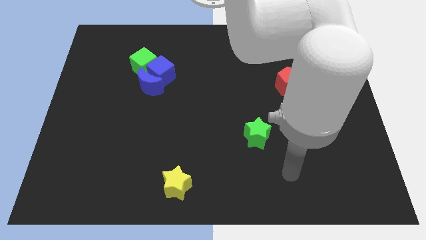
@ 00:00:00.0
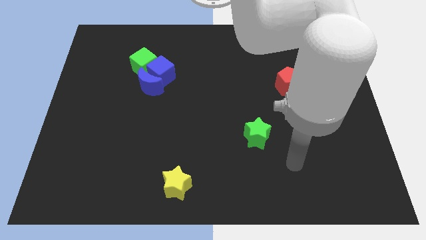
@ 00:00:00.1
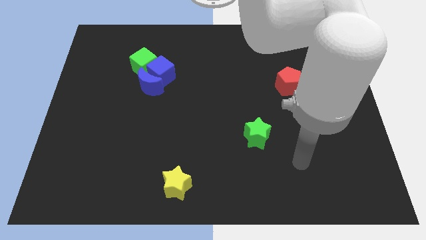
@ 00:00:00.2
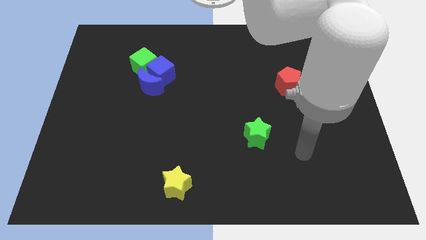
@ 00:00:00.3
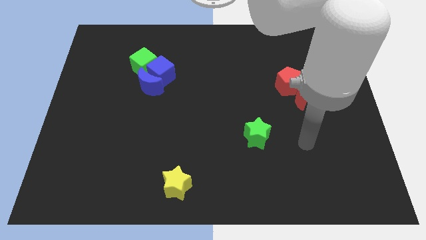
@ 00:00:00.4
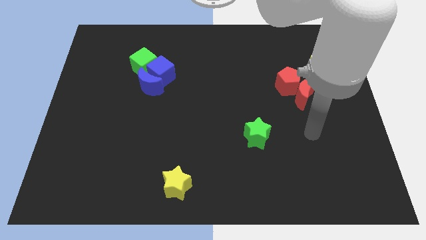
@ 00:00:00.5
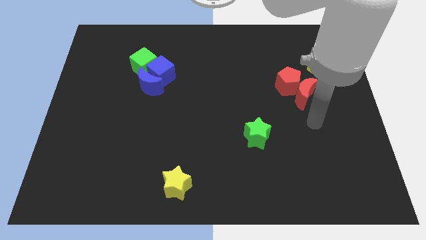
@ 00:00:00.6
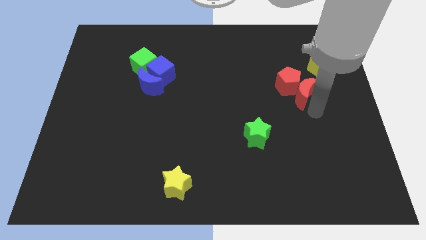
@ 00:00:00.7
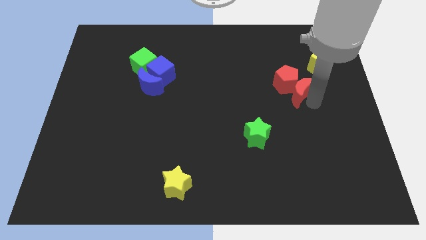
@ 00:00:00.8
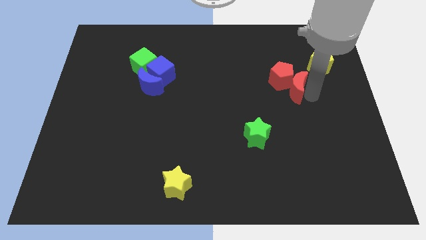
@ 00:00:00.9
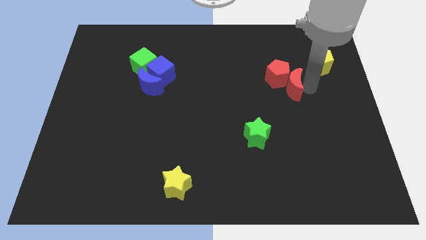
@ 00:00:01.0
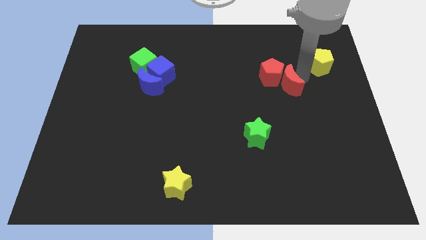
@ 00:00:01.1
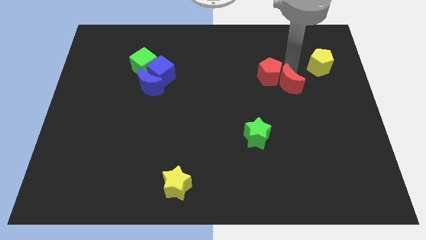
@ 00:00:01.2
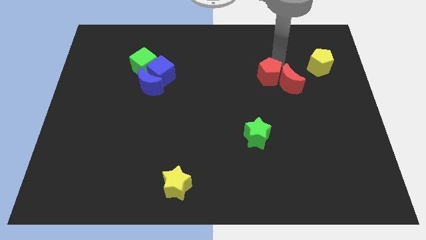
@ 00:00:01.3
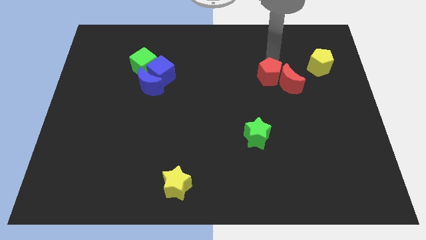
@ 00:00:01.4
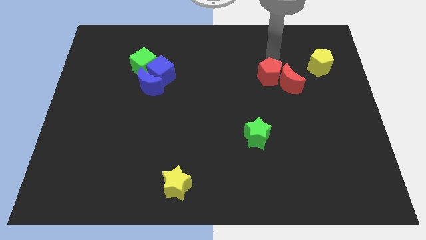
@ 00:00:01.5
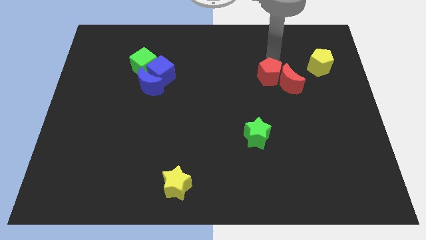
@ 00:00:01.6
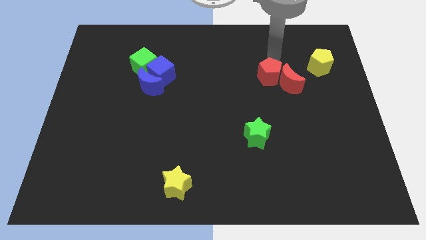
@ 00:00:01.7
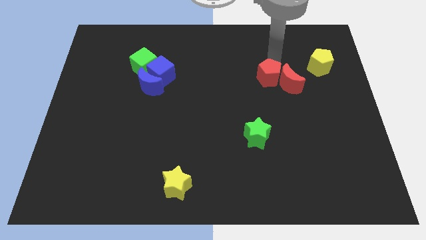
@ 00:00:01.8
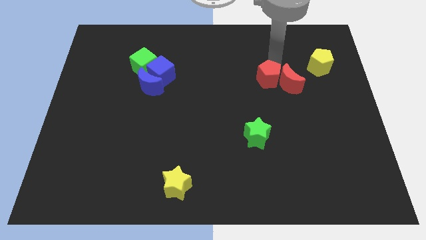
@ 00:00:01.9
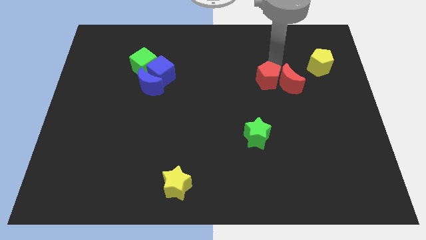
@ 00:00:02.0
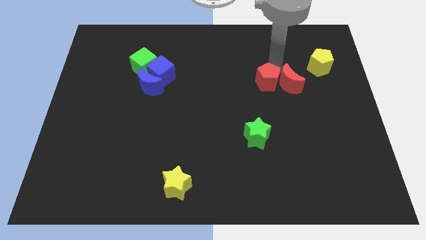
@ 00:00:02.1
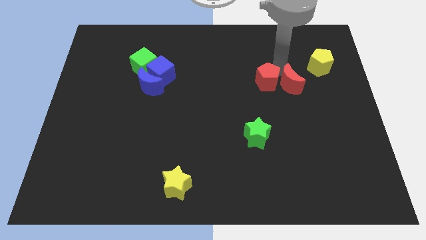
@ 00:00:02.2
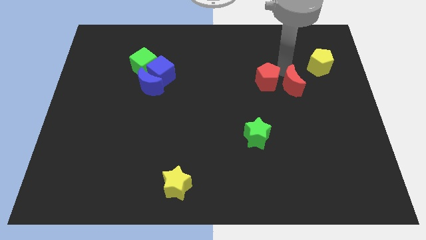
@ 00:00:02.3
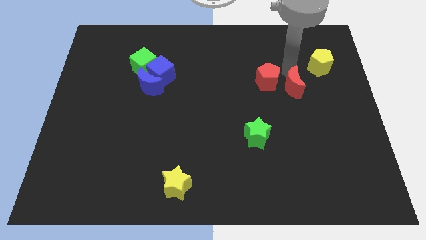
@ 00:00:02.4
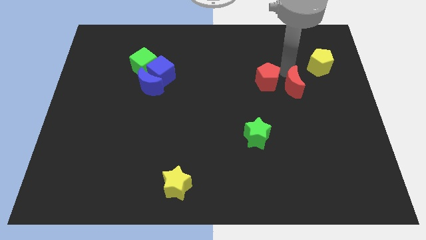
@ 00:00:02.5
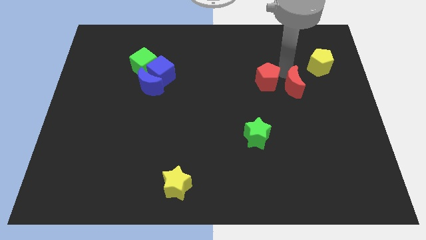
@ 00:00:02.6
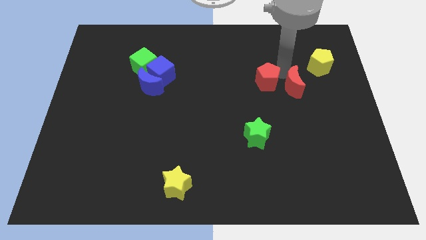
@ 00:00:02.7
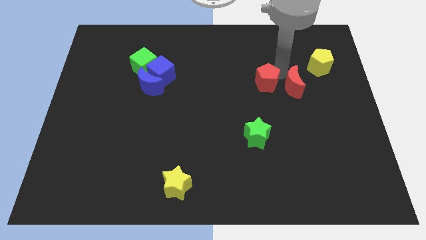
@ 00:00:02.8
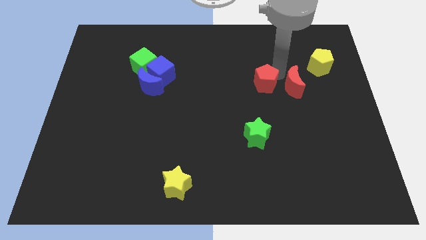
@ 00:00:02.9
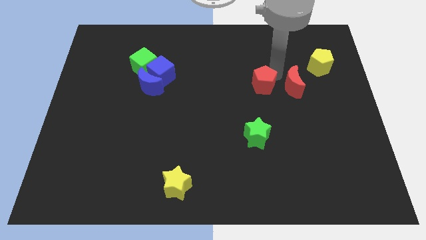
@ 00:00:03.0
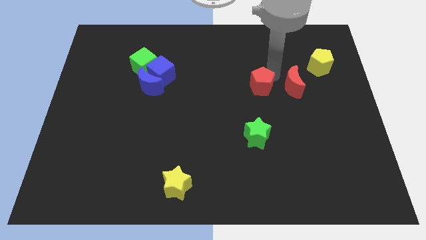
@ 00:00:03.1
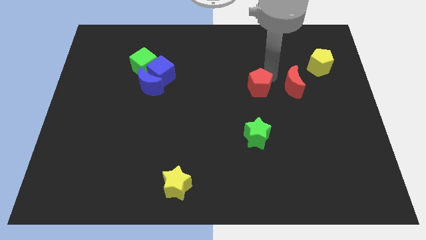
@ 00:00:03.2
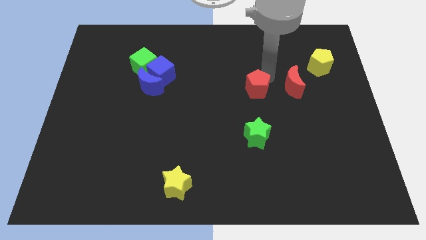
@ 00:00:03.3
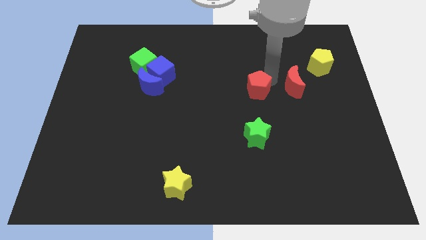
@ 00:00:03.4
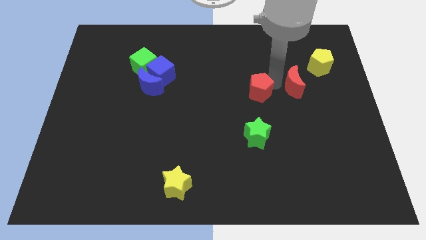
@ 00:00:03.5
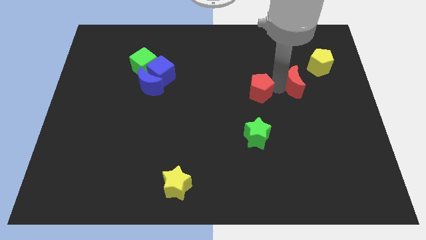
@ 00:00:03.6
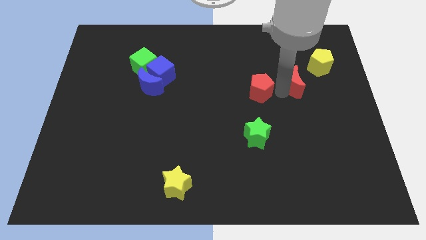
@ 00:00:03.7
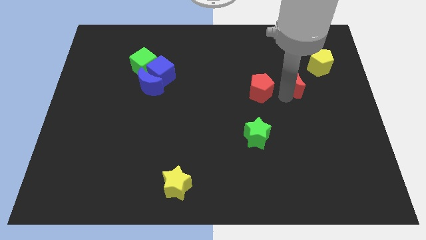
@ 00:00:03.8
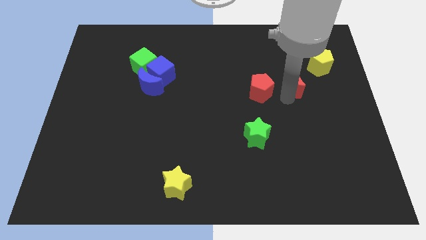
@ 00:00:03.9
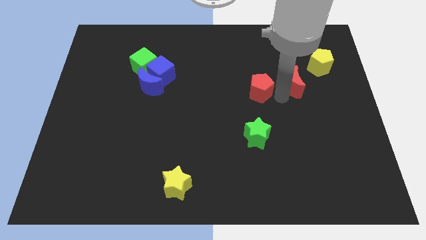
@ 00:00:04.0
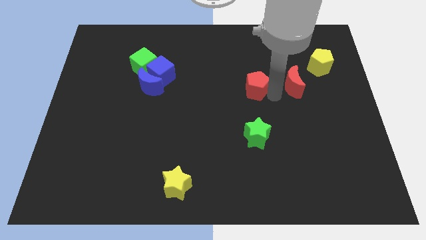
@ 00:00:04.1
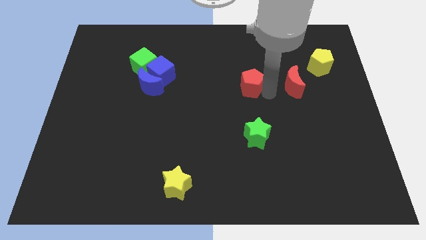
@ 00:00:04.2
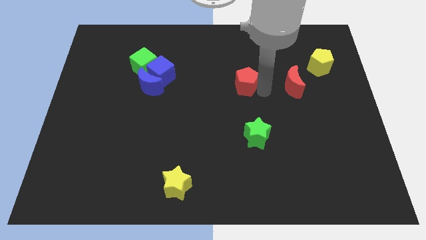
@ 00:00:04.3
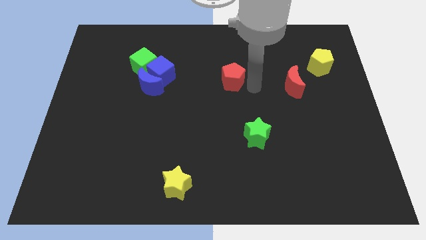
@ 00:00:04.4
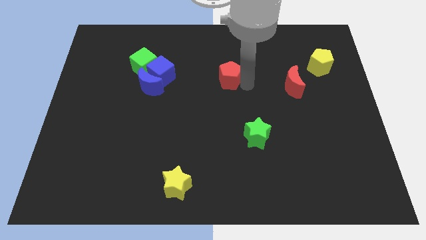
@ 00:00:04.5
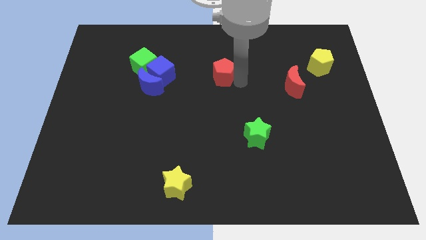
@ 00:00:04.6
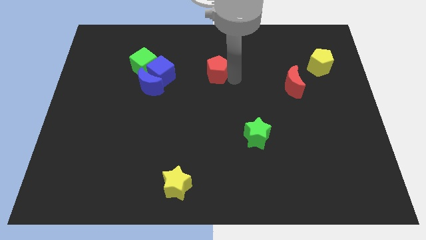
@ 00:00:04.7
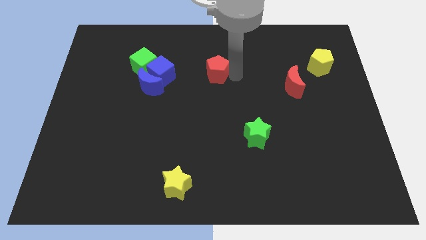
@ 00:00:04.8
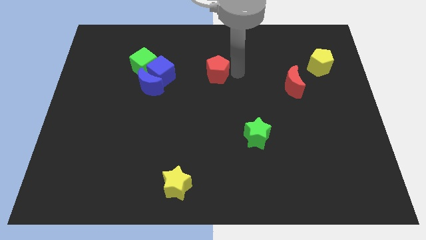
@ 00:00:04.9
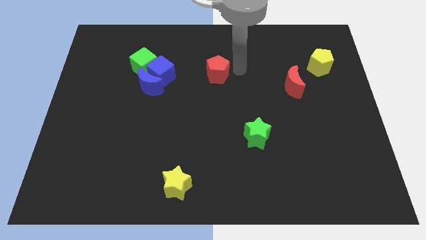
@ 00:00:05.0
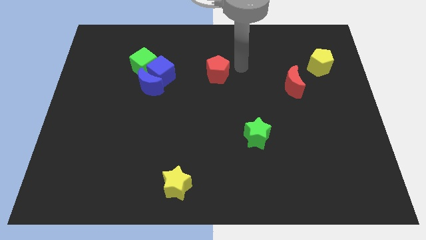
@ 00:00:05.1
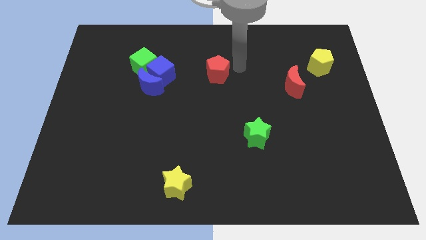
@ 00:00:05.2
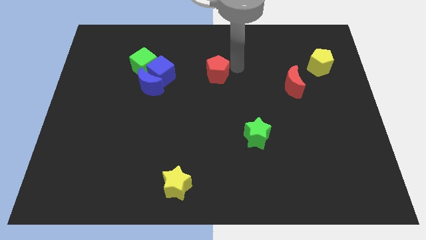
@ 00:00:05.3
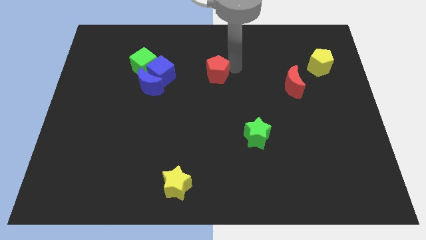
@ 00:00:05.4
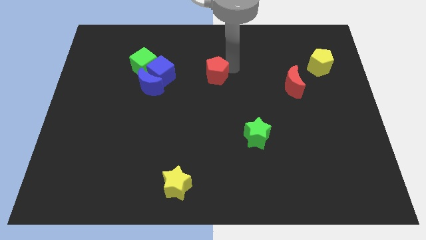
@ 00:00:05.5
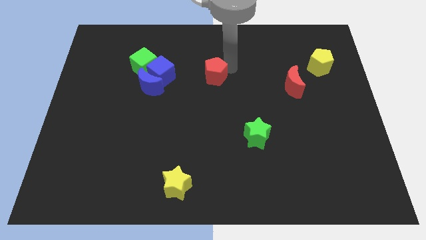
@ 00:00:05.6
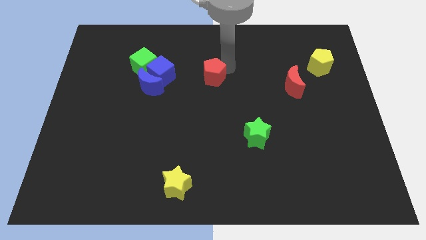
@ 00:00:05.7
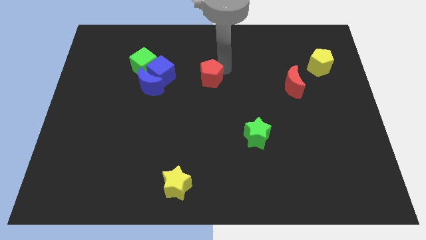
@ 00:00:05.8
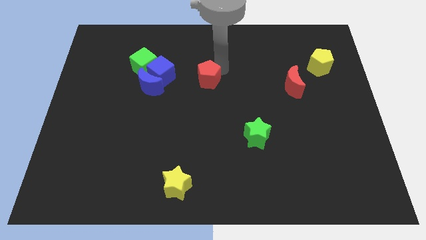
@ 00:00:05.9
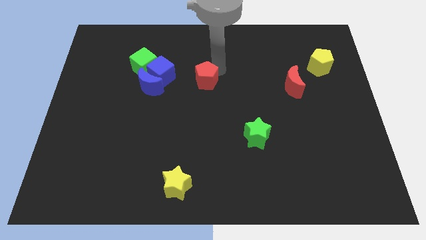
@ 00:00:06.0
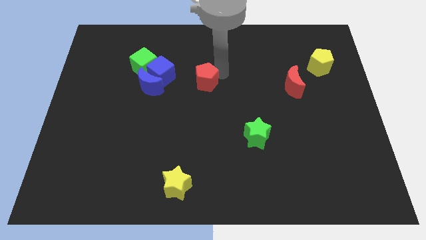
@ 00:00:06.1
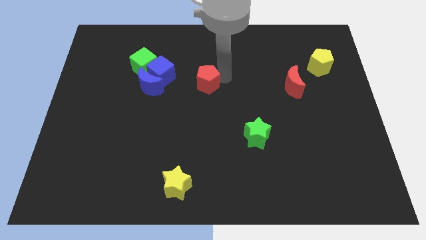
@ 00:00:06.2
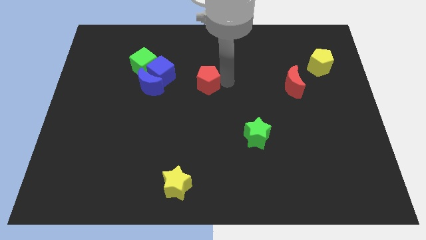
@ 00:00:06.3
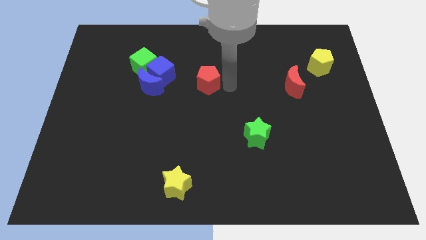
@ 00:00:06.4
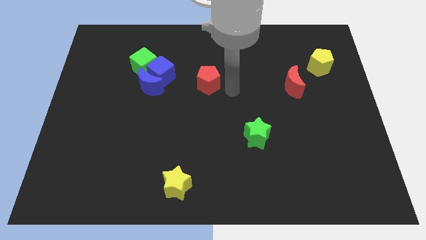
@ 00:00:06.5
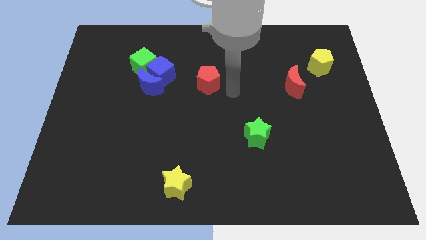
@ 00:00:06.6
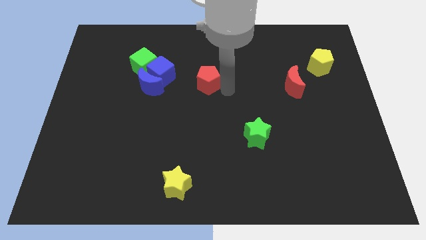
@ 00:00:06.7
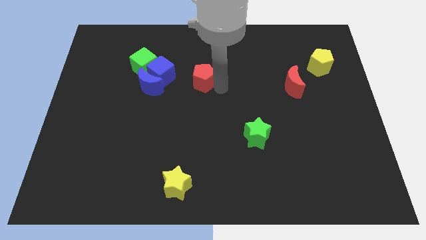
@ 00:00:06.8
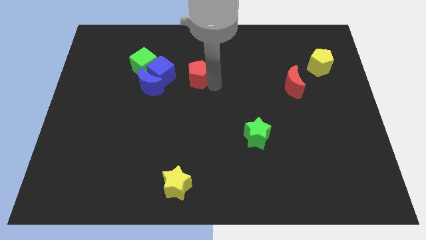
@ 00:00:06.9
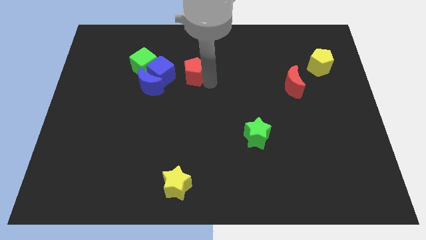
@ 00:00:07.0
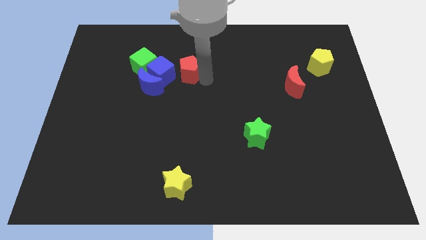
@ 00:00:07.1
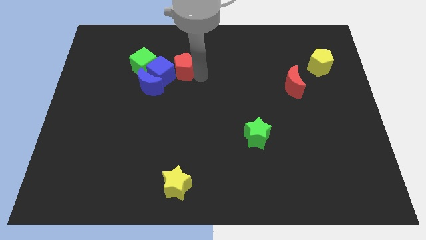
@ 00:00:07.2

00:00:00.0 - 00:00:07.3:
put the red pentagon close to the blue cube

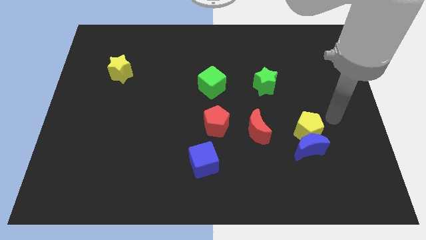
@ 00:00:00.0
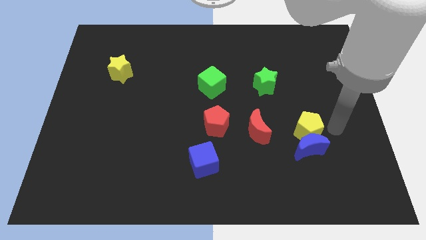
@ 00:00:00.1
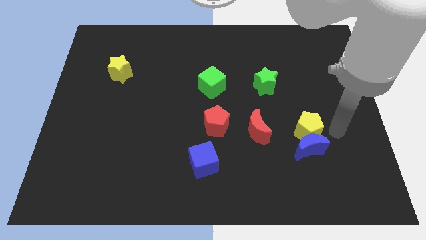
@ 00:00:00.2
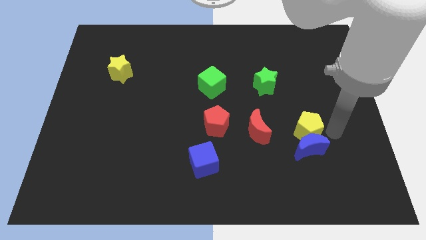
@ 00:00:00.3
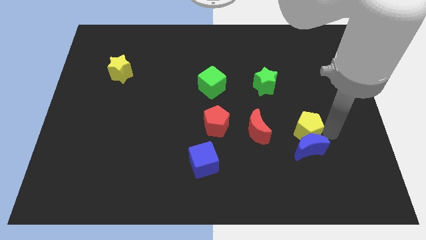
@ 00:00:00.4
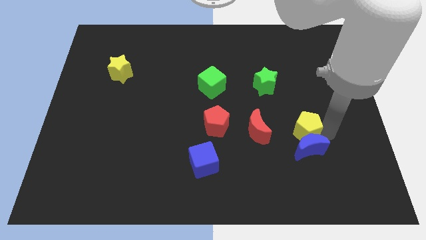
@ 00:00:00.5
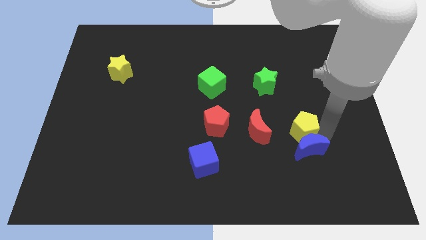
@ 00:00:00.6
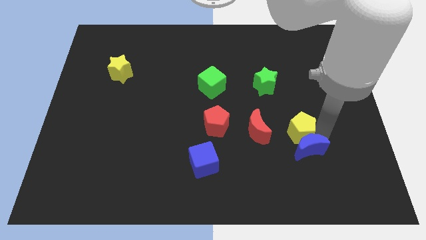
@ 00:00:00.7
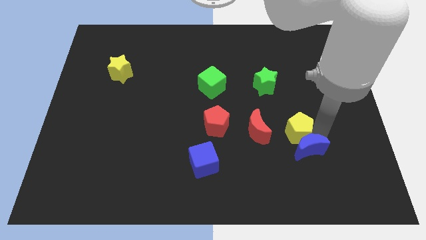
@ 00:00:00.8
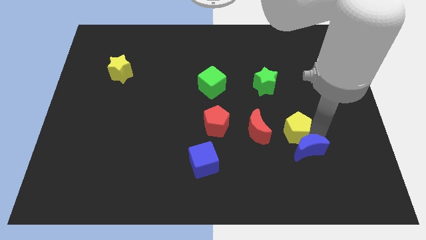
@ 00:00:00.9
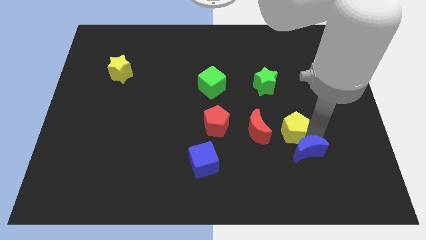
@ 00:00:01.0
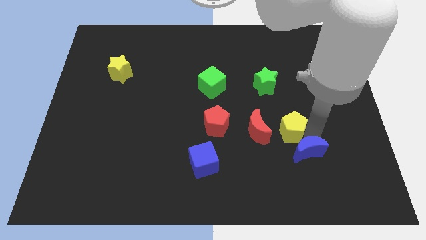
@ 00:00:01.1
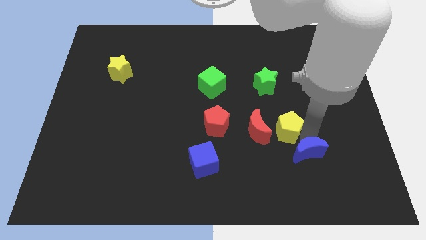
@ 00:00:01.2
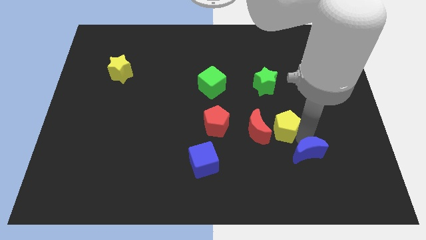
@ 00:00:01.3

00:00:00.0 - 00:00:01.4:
put the yellow pentagon towards the red moon
